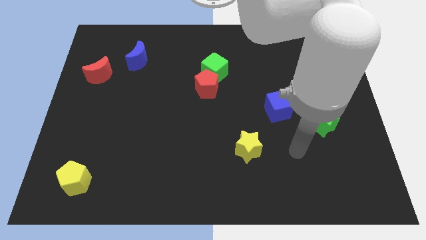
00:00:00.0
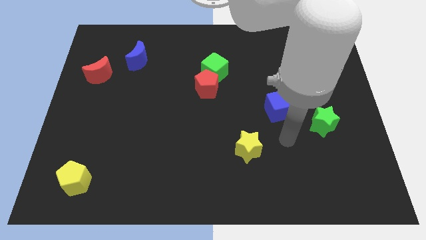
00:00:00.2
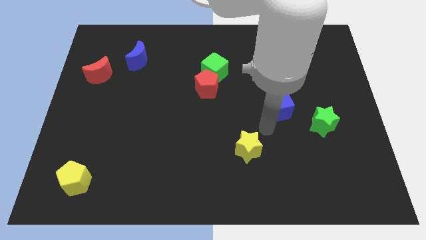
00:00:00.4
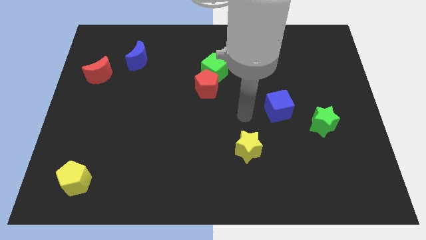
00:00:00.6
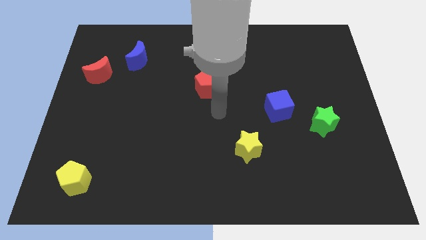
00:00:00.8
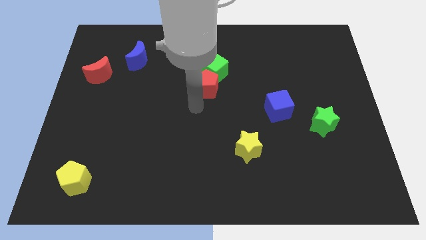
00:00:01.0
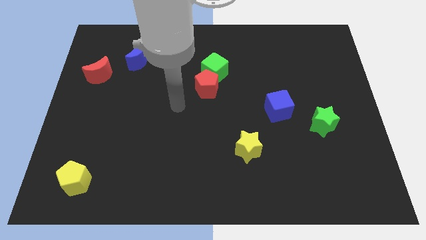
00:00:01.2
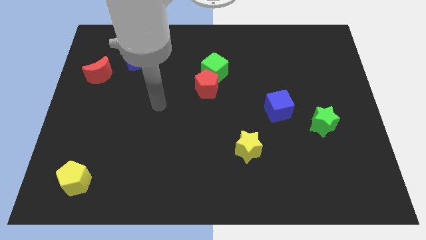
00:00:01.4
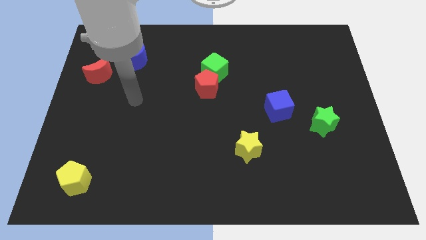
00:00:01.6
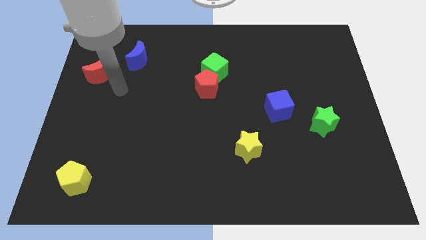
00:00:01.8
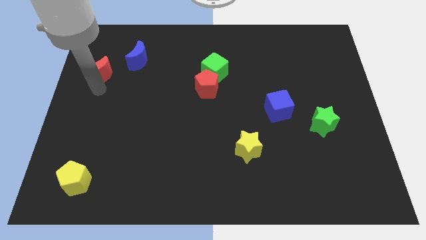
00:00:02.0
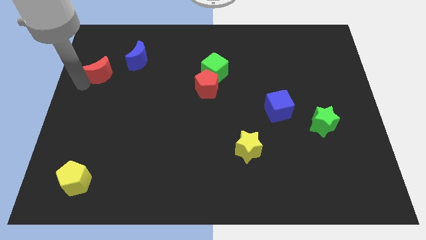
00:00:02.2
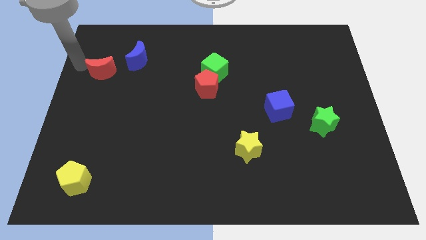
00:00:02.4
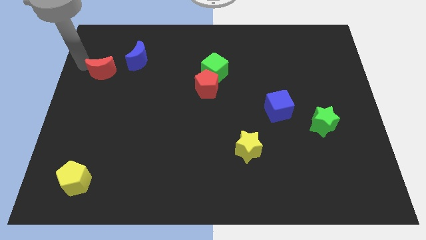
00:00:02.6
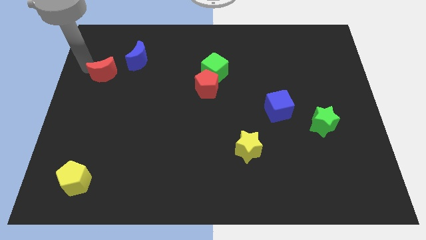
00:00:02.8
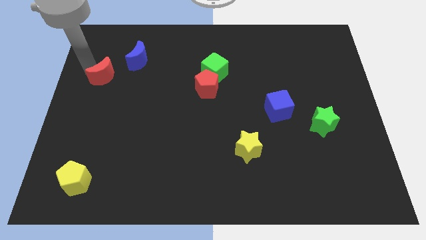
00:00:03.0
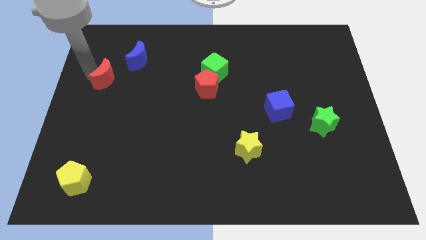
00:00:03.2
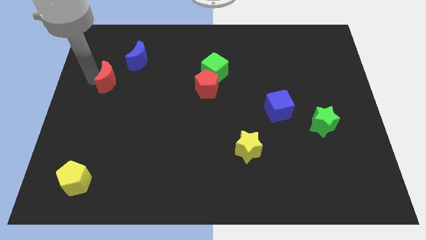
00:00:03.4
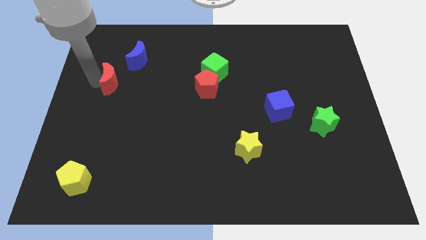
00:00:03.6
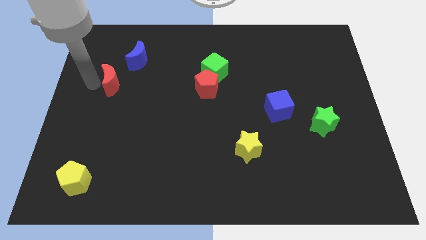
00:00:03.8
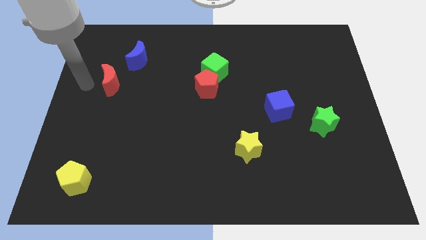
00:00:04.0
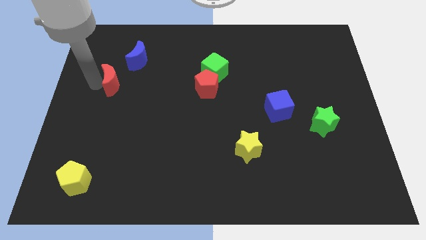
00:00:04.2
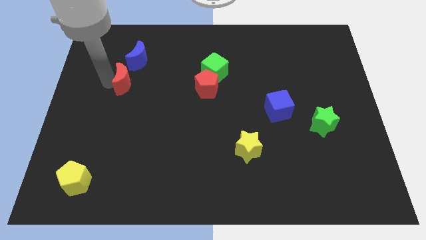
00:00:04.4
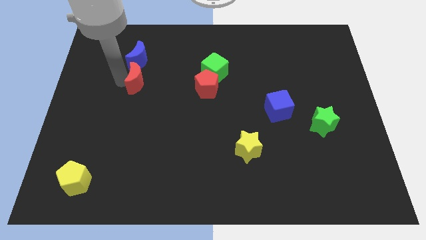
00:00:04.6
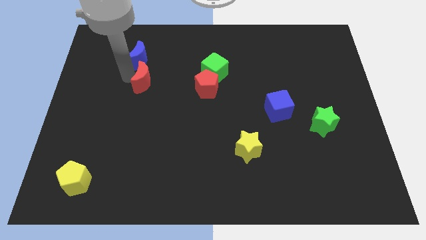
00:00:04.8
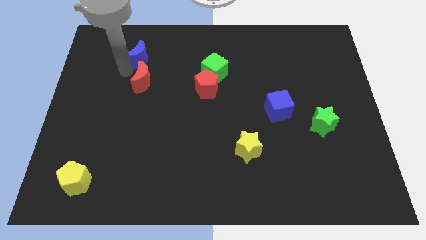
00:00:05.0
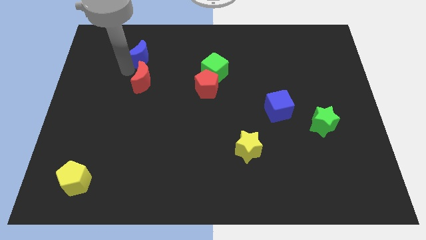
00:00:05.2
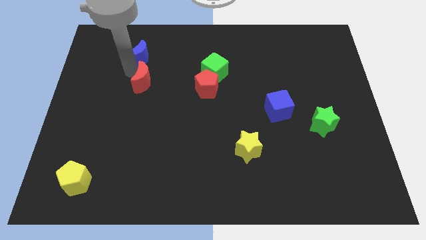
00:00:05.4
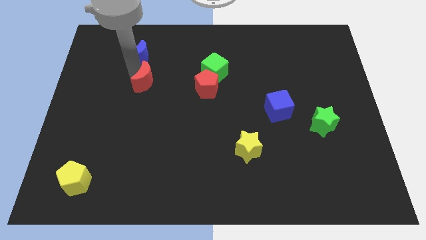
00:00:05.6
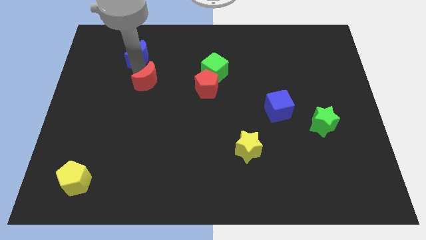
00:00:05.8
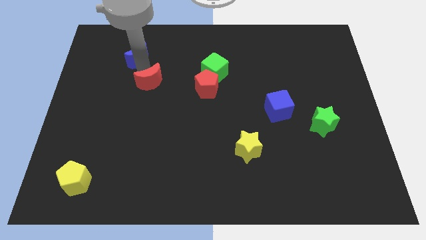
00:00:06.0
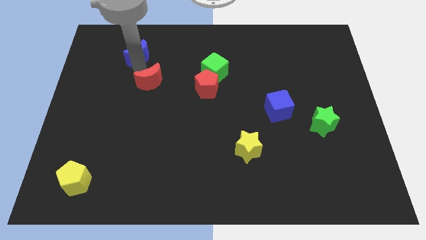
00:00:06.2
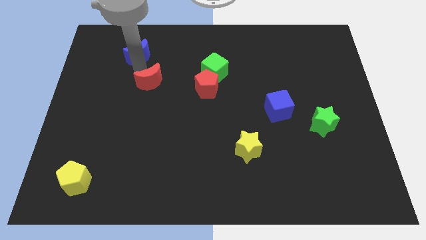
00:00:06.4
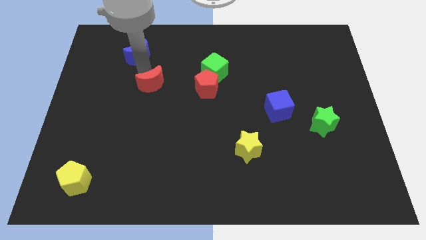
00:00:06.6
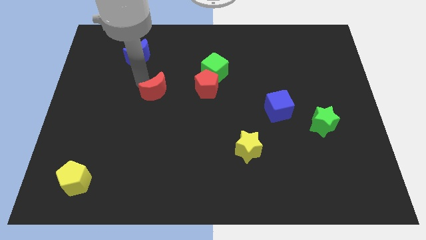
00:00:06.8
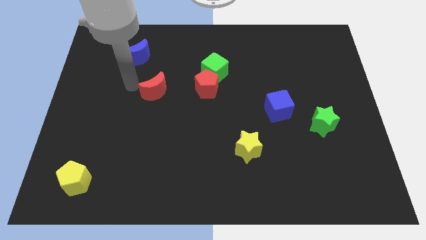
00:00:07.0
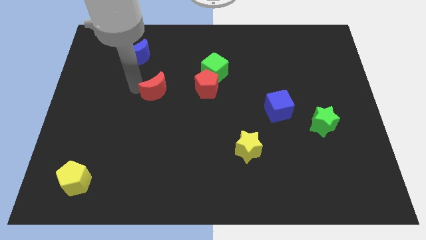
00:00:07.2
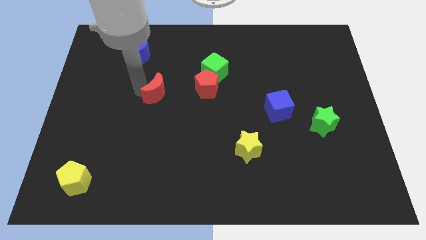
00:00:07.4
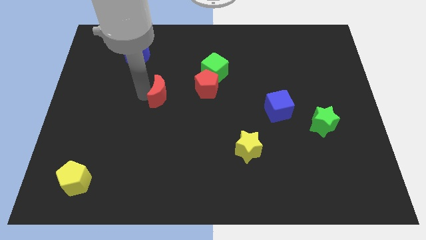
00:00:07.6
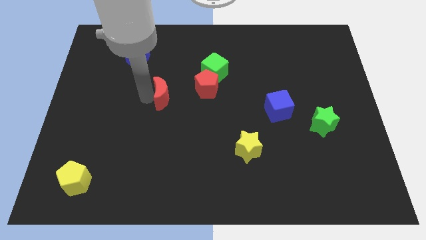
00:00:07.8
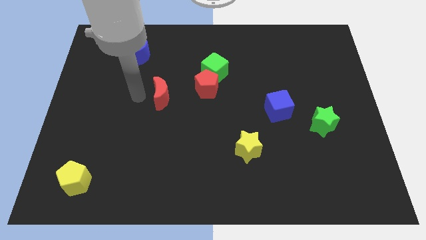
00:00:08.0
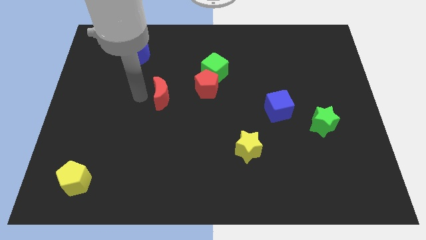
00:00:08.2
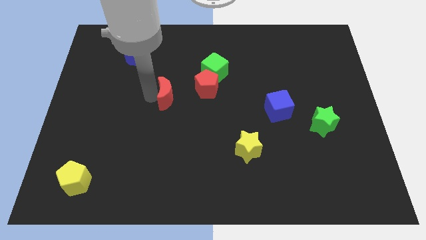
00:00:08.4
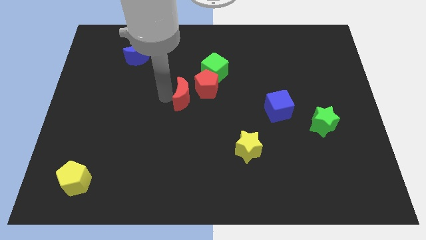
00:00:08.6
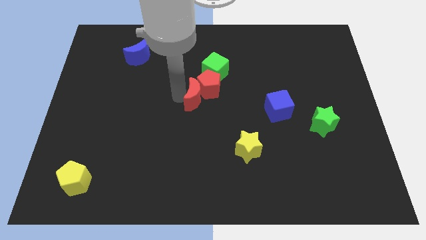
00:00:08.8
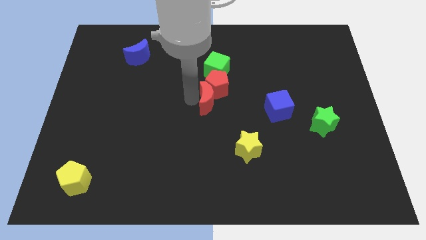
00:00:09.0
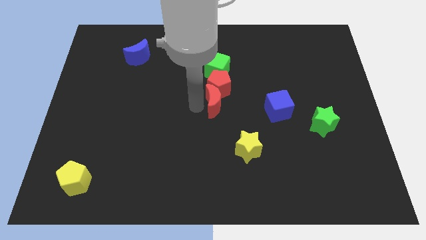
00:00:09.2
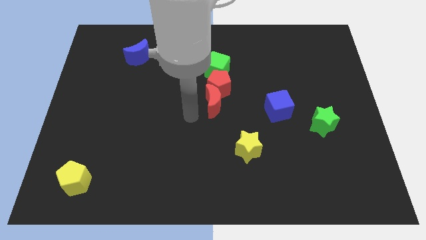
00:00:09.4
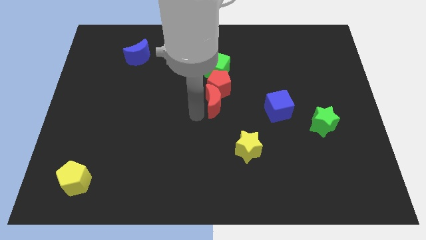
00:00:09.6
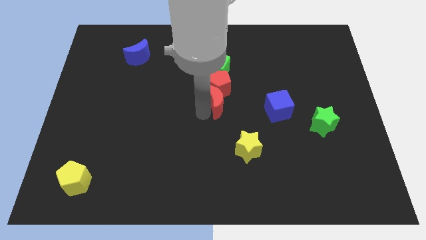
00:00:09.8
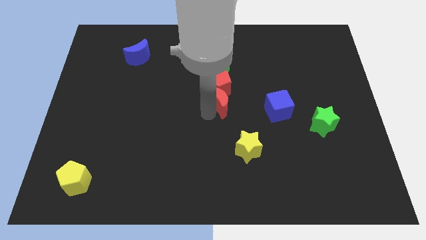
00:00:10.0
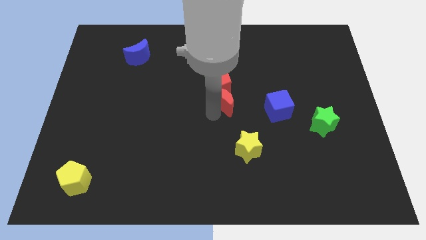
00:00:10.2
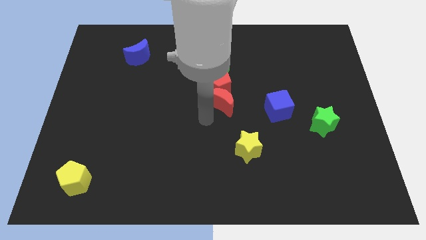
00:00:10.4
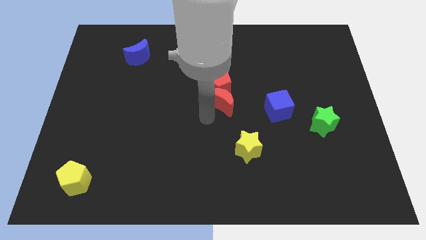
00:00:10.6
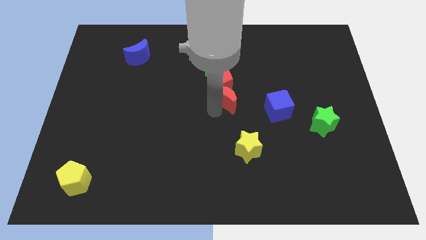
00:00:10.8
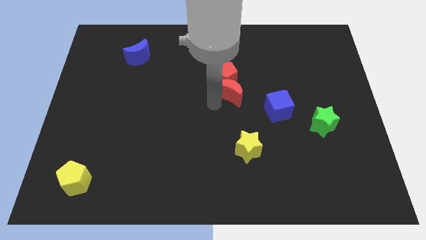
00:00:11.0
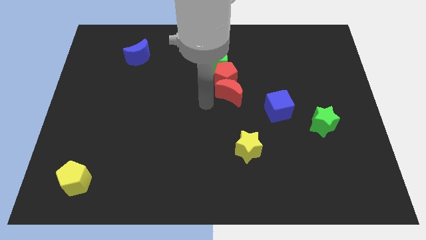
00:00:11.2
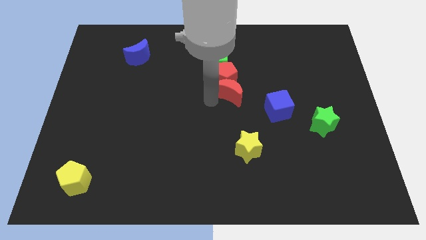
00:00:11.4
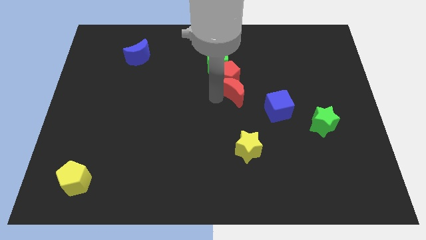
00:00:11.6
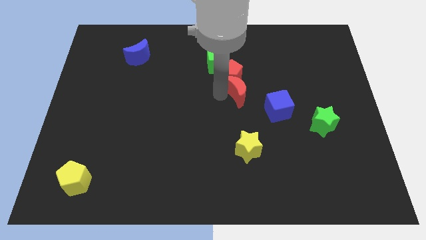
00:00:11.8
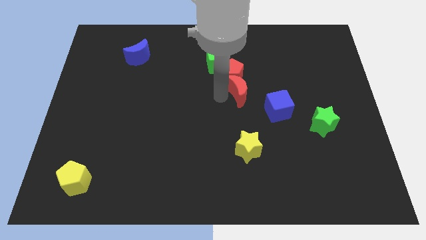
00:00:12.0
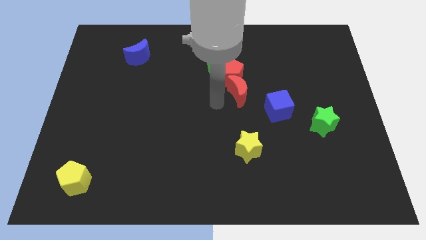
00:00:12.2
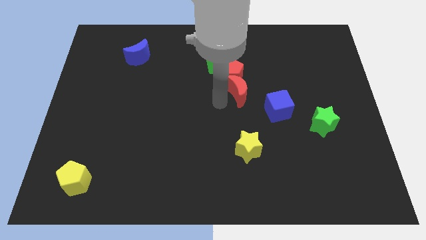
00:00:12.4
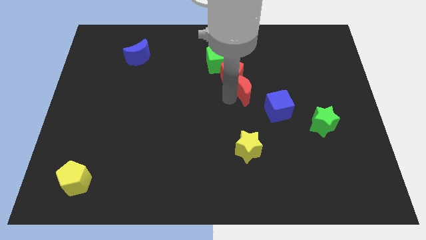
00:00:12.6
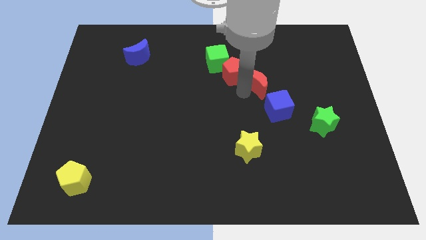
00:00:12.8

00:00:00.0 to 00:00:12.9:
put the red moon to the top side of the blue cube

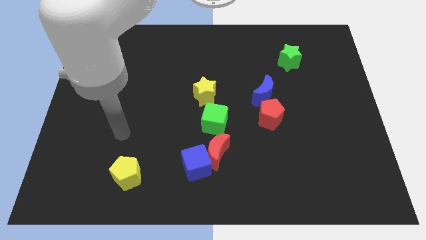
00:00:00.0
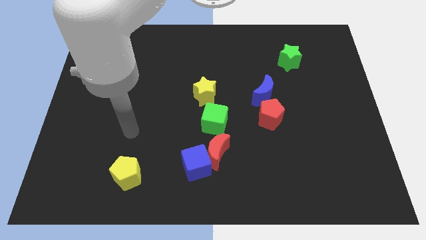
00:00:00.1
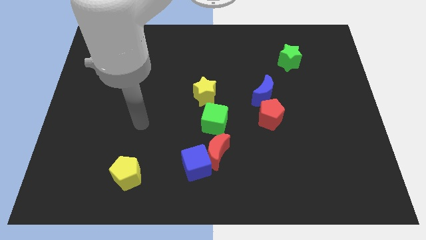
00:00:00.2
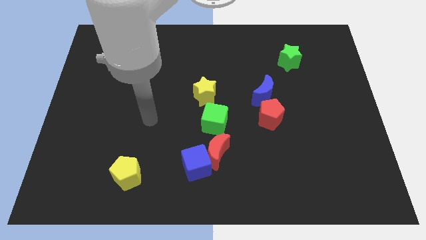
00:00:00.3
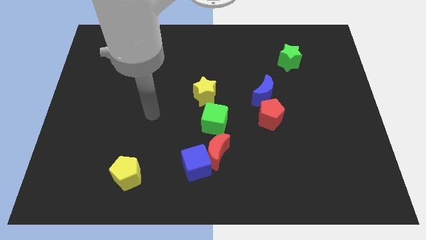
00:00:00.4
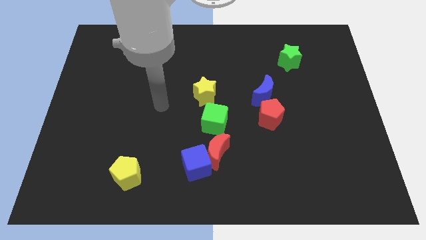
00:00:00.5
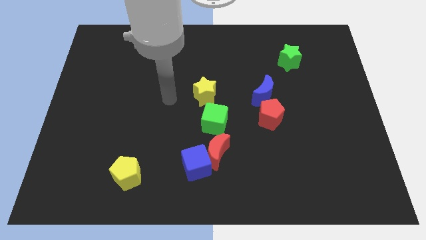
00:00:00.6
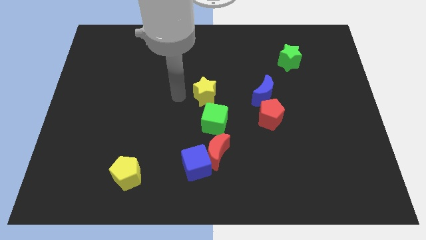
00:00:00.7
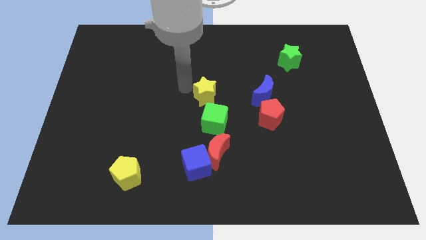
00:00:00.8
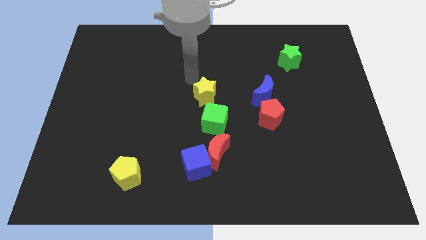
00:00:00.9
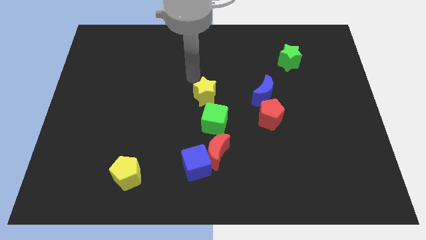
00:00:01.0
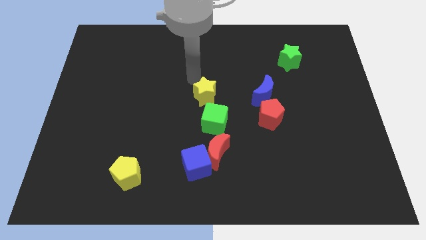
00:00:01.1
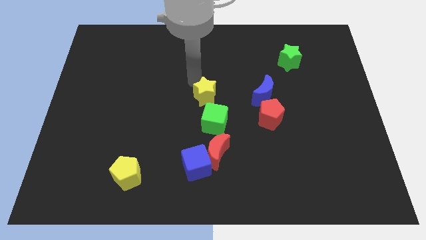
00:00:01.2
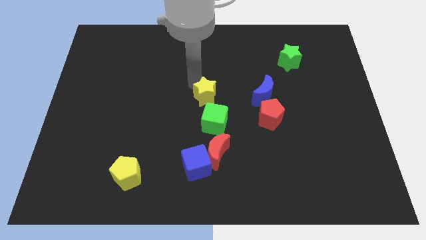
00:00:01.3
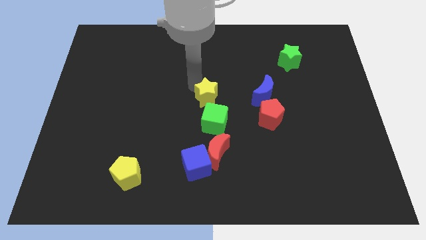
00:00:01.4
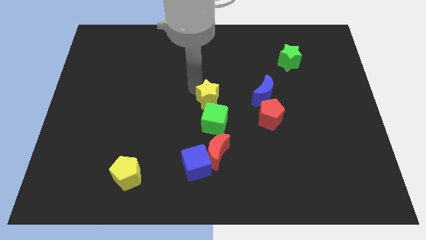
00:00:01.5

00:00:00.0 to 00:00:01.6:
slide the yellow star to the top side of the red moon
